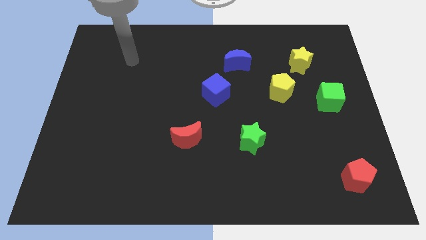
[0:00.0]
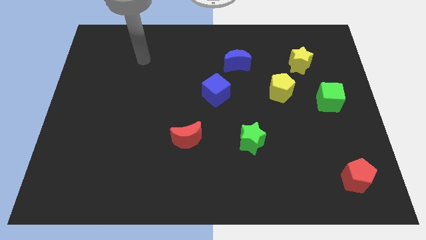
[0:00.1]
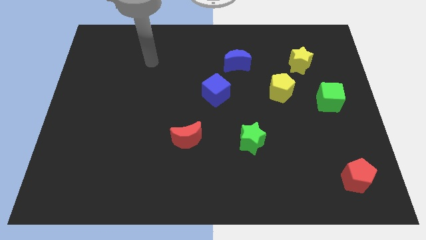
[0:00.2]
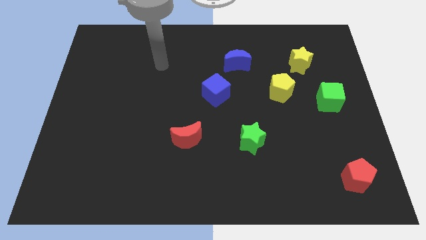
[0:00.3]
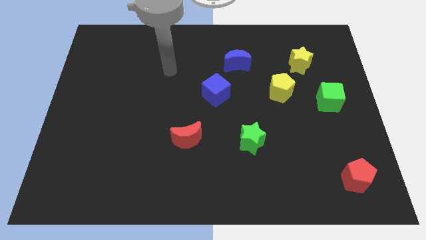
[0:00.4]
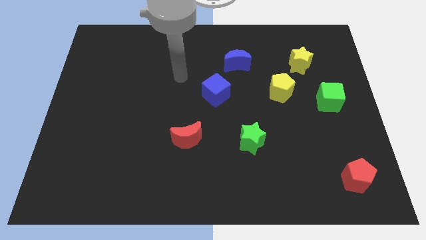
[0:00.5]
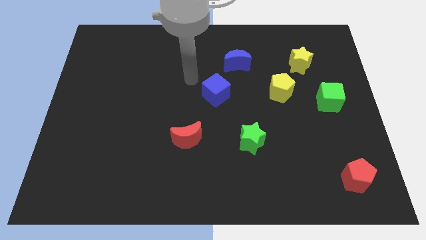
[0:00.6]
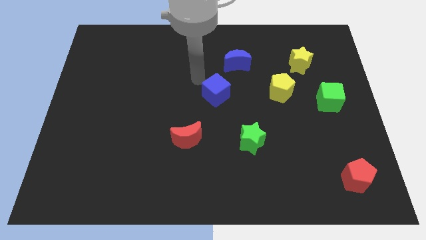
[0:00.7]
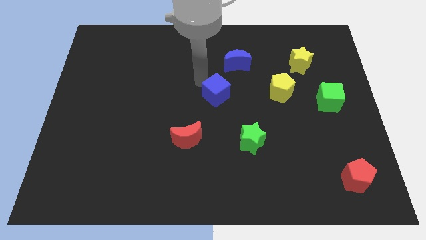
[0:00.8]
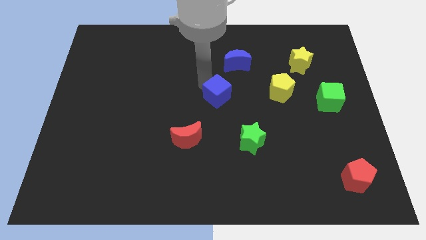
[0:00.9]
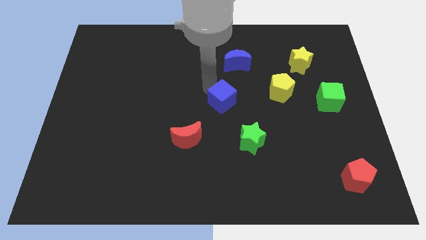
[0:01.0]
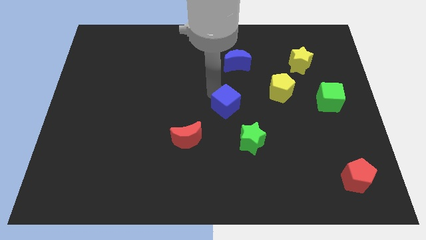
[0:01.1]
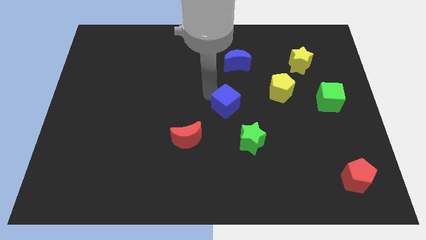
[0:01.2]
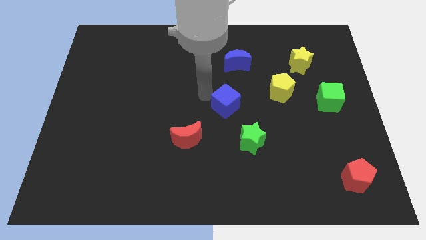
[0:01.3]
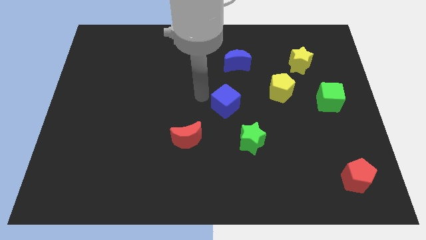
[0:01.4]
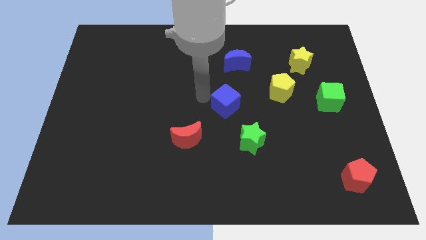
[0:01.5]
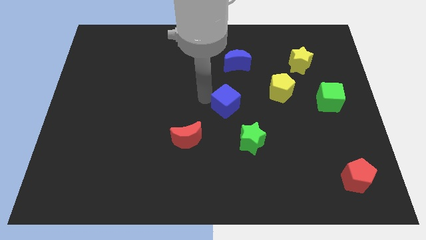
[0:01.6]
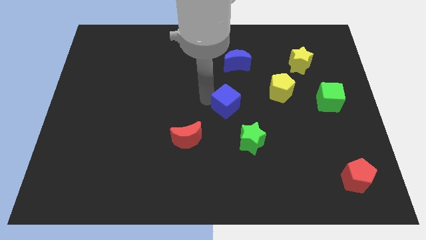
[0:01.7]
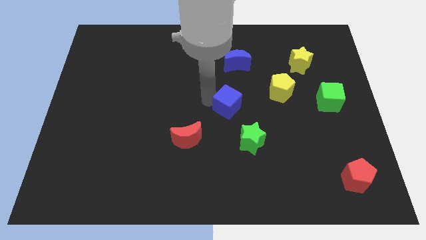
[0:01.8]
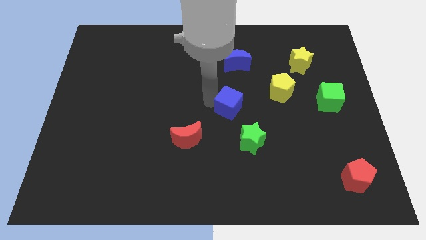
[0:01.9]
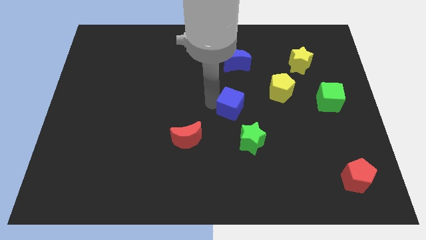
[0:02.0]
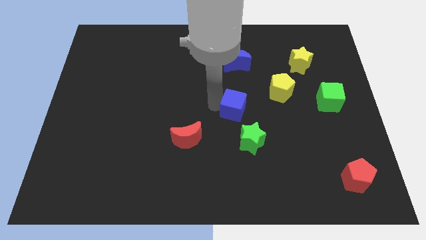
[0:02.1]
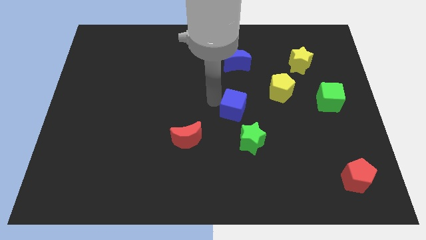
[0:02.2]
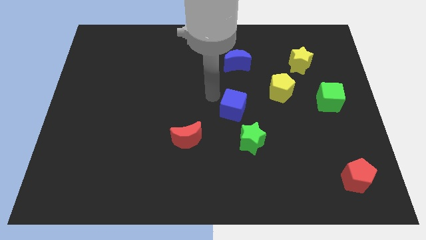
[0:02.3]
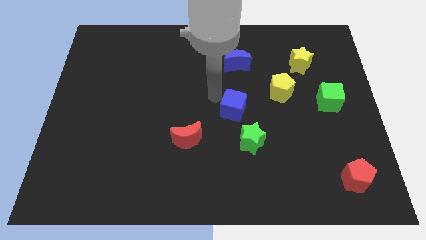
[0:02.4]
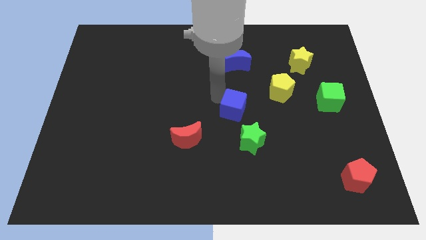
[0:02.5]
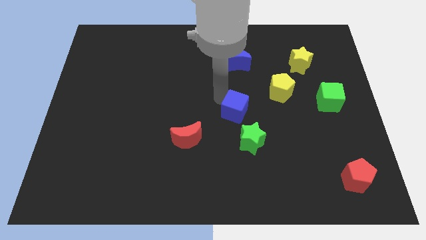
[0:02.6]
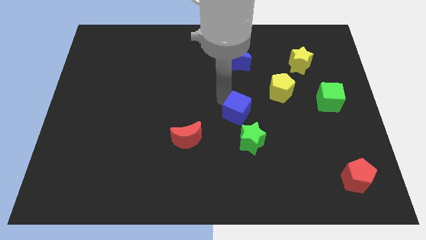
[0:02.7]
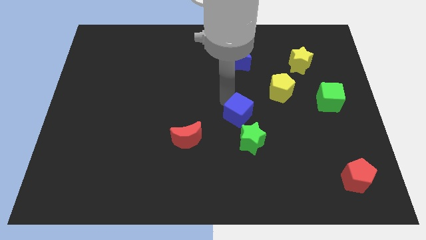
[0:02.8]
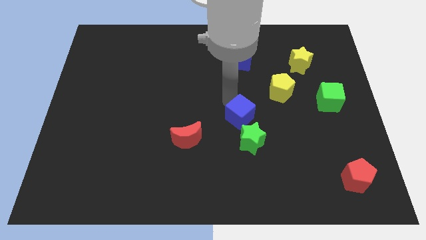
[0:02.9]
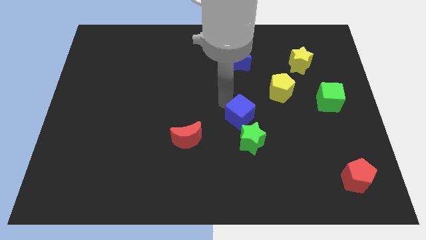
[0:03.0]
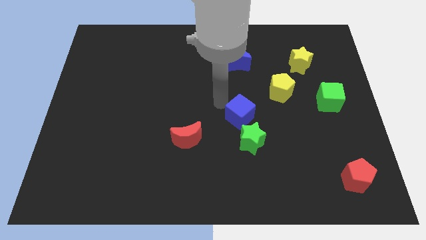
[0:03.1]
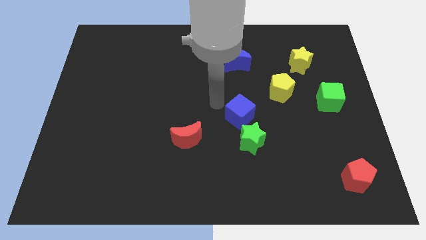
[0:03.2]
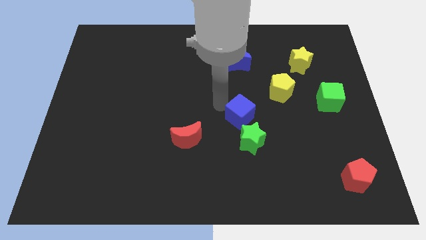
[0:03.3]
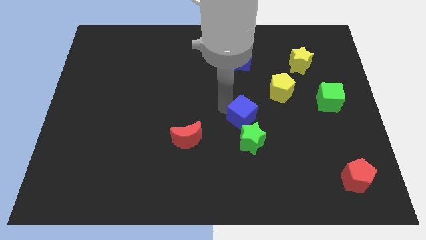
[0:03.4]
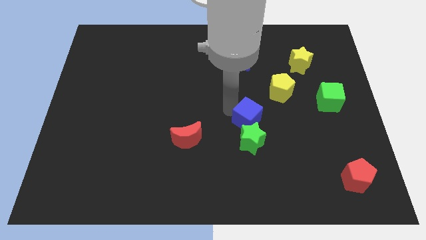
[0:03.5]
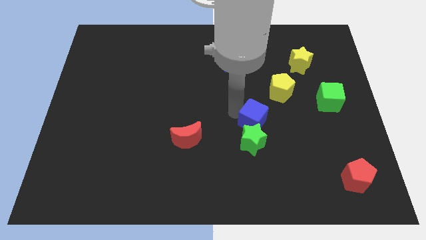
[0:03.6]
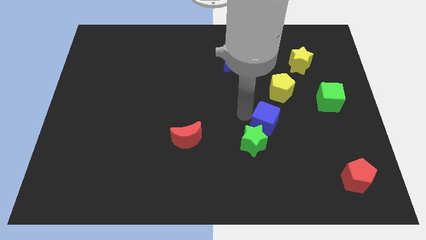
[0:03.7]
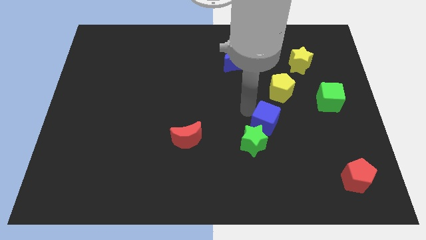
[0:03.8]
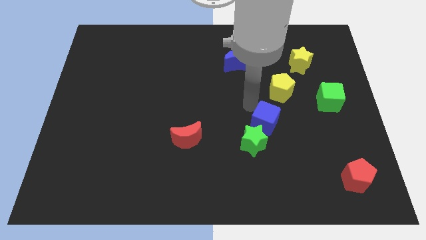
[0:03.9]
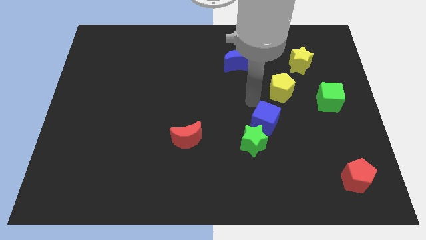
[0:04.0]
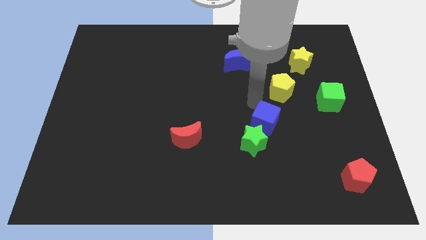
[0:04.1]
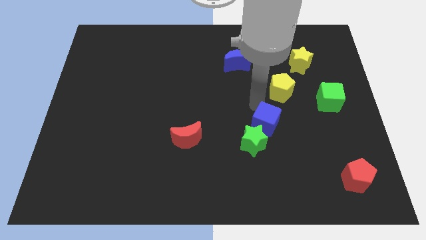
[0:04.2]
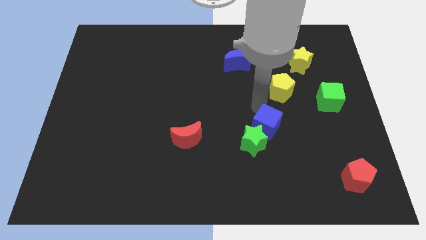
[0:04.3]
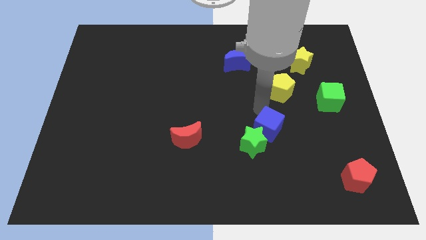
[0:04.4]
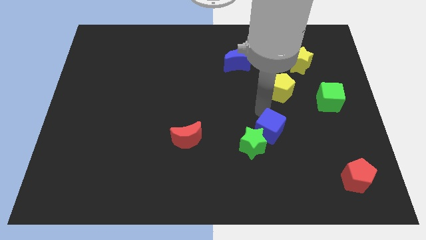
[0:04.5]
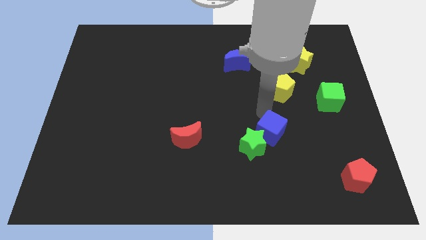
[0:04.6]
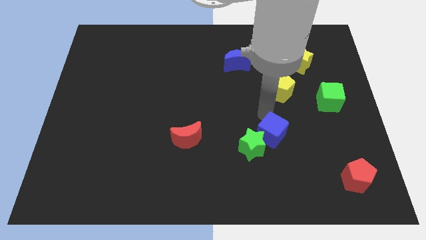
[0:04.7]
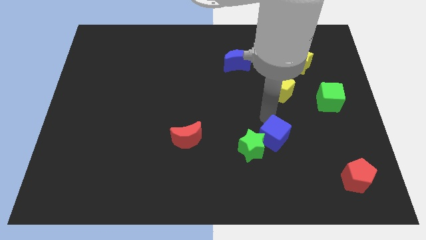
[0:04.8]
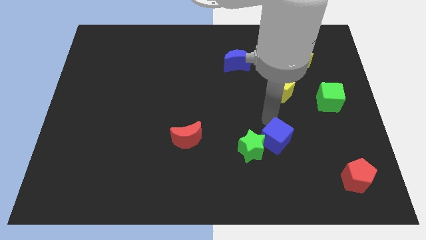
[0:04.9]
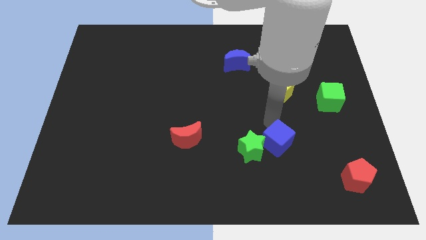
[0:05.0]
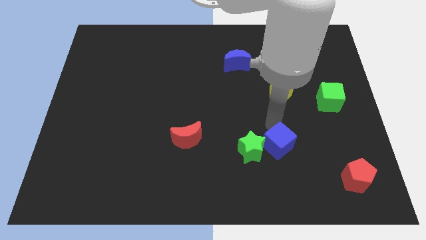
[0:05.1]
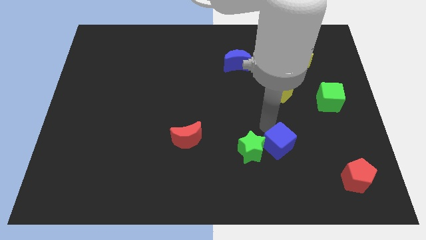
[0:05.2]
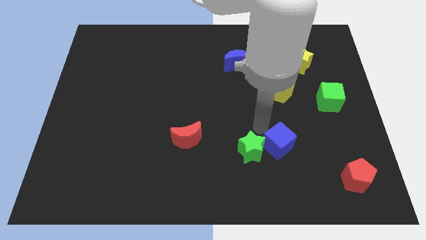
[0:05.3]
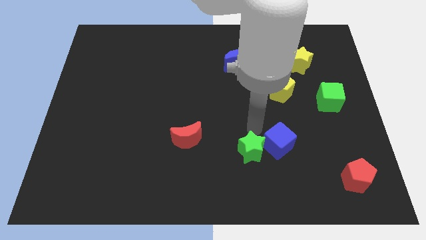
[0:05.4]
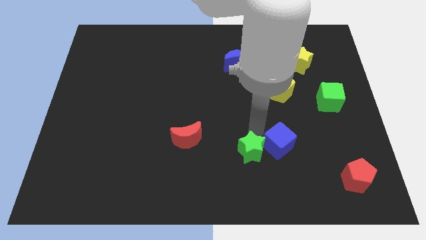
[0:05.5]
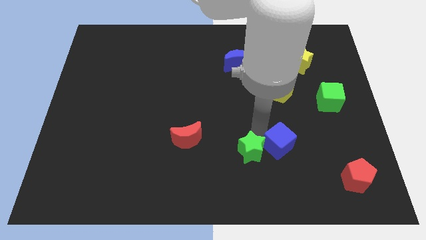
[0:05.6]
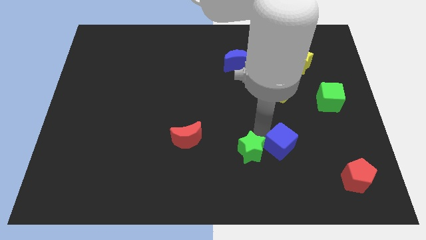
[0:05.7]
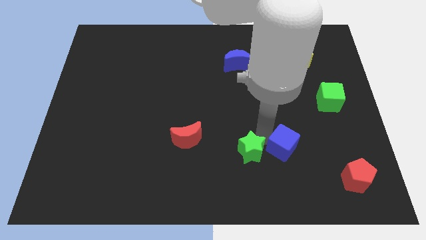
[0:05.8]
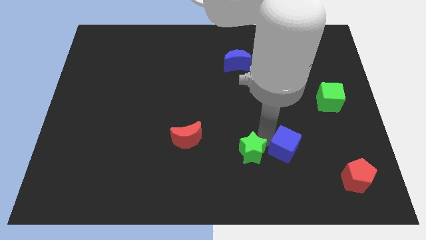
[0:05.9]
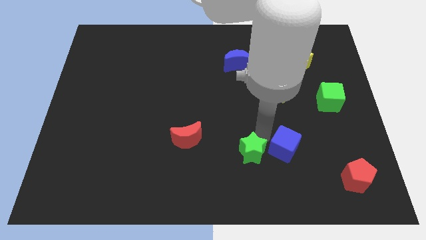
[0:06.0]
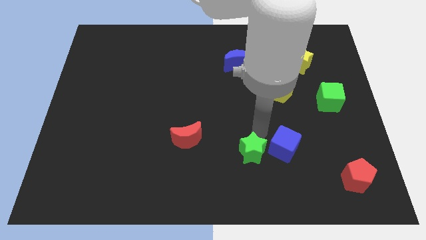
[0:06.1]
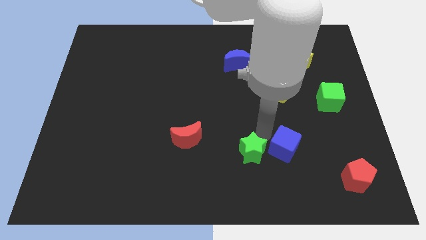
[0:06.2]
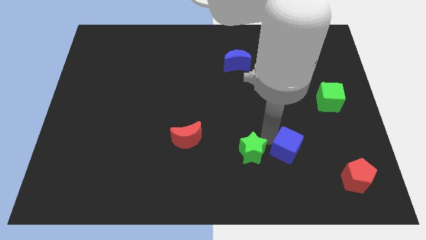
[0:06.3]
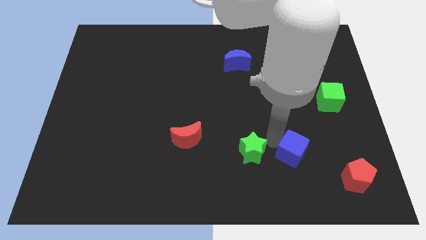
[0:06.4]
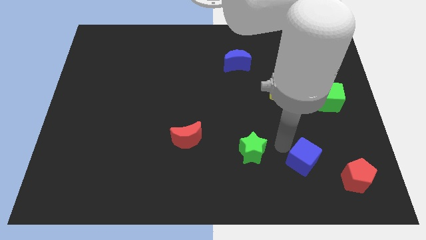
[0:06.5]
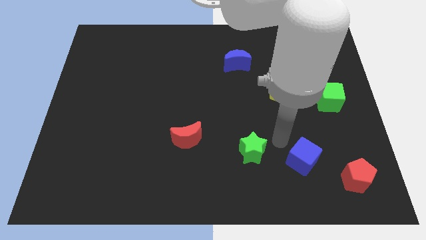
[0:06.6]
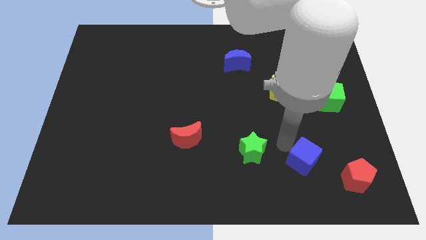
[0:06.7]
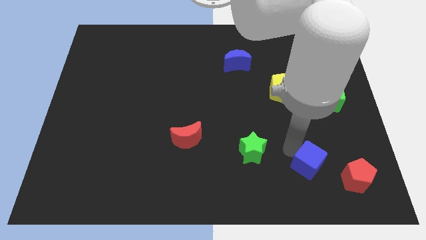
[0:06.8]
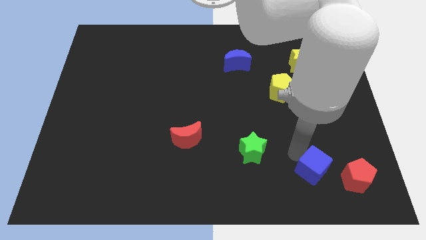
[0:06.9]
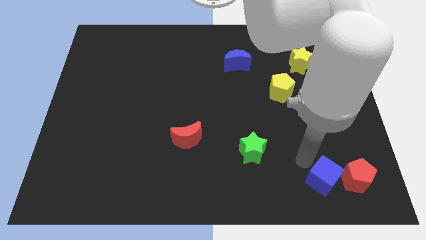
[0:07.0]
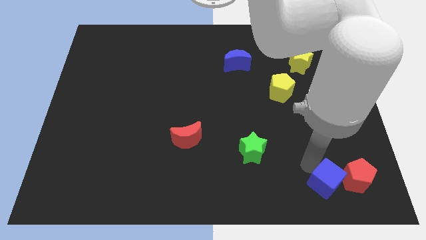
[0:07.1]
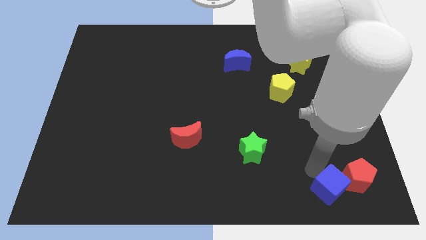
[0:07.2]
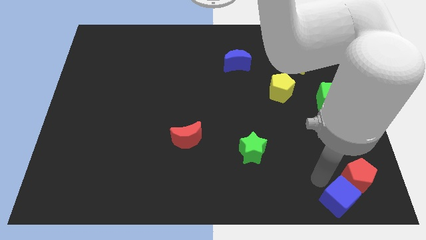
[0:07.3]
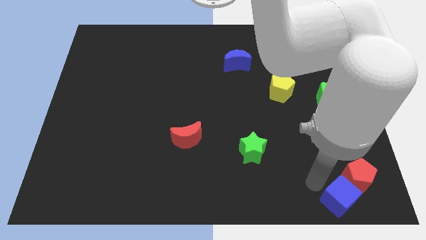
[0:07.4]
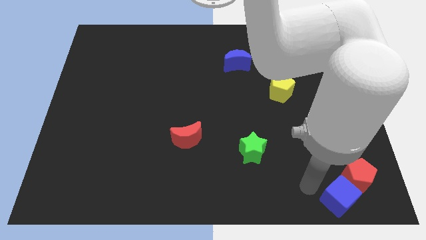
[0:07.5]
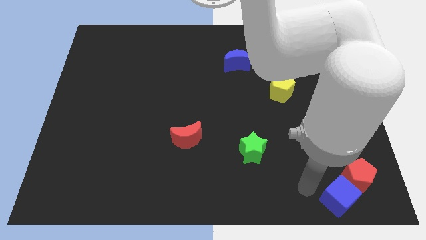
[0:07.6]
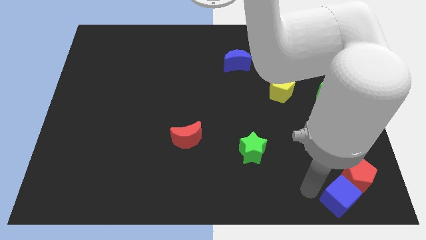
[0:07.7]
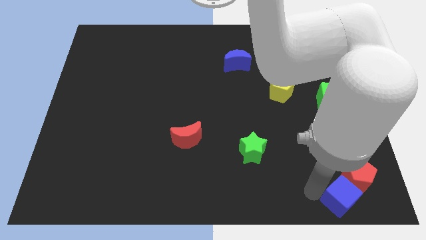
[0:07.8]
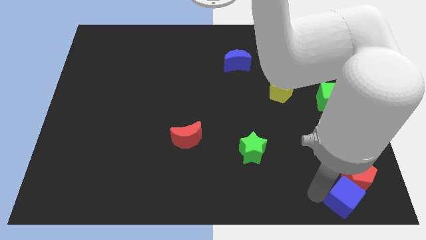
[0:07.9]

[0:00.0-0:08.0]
push the blue cube to the bottom right
